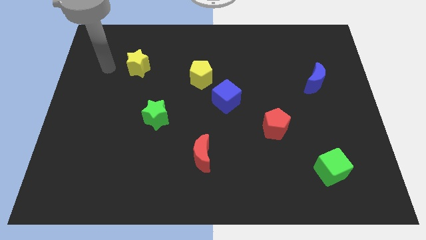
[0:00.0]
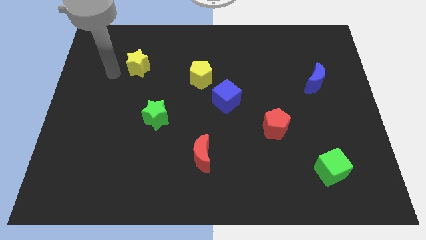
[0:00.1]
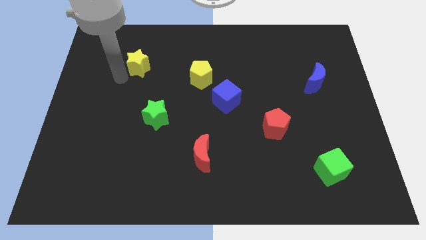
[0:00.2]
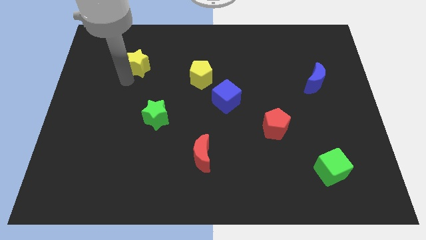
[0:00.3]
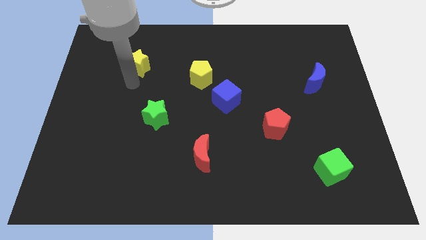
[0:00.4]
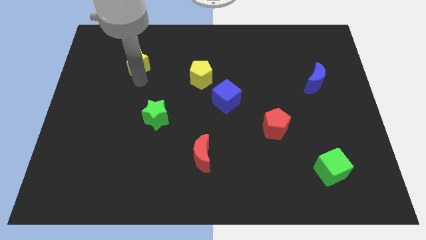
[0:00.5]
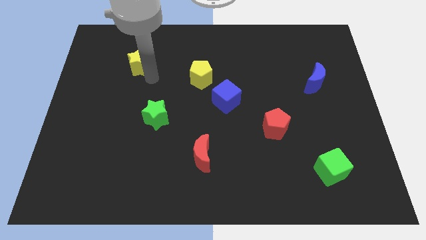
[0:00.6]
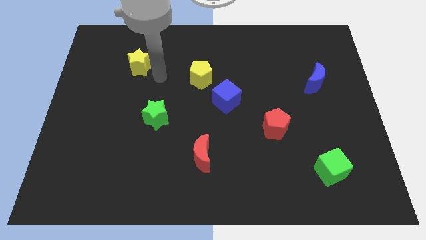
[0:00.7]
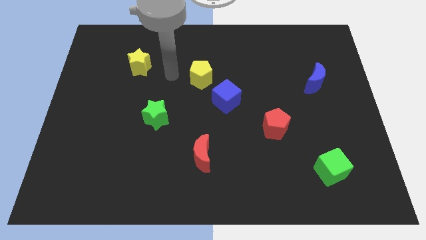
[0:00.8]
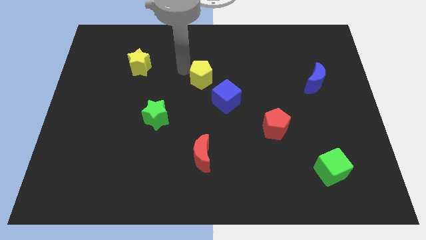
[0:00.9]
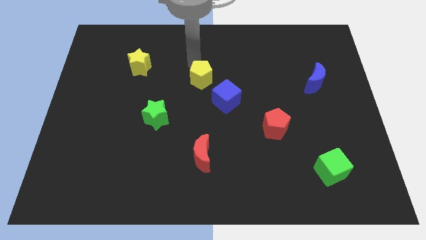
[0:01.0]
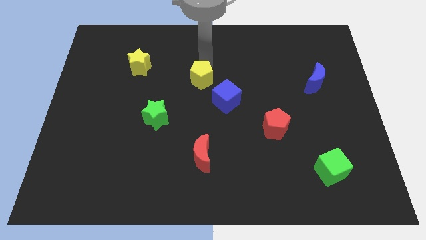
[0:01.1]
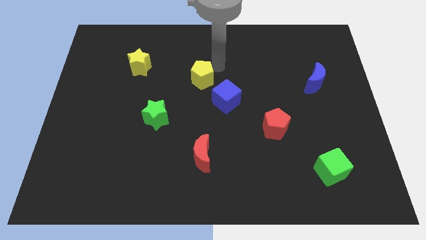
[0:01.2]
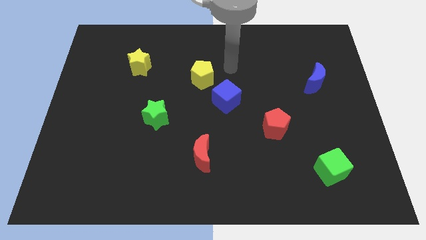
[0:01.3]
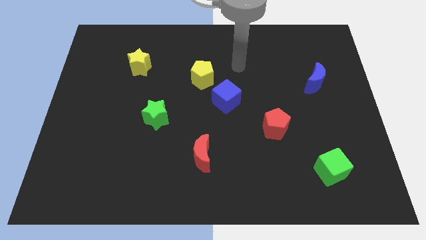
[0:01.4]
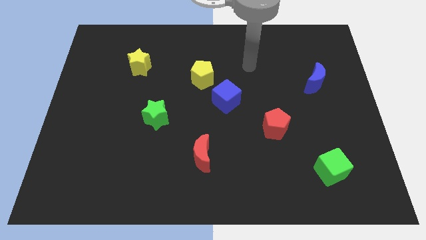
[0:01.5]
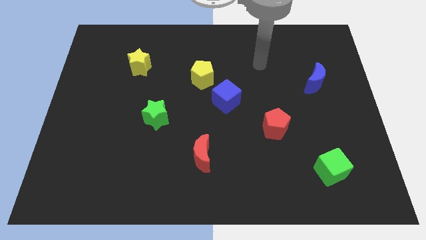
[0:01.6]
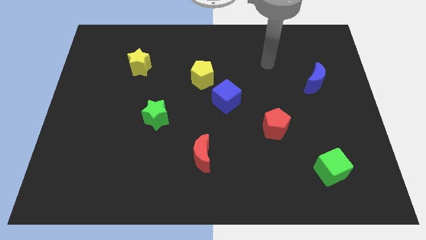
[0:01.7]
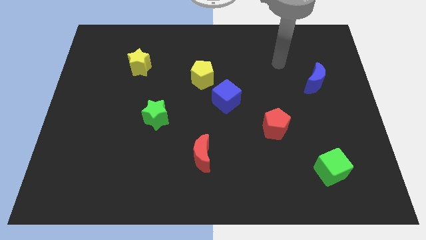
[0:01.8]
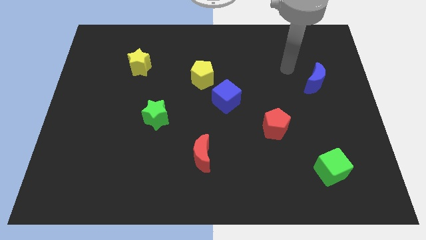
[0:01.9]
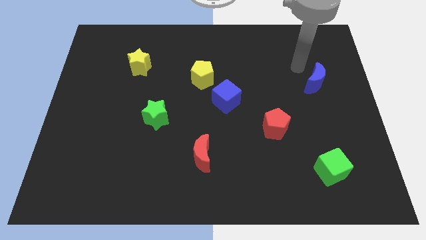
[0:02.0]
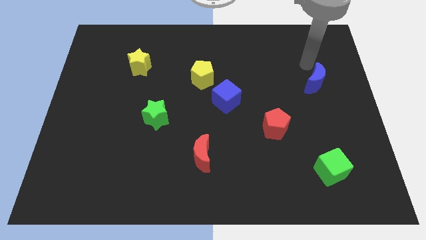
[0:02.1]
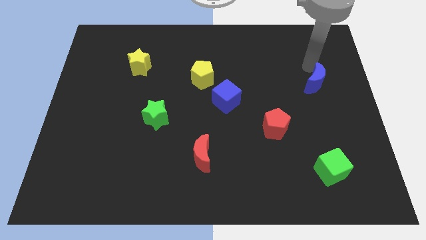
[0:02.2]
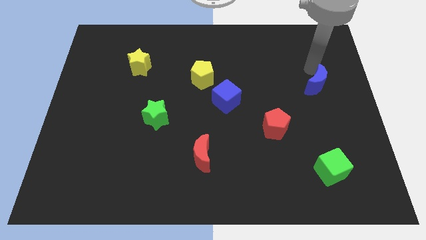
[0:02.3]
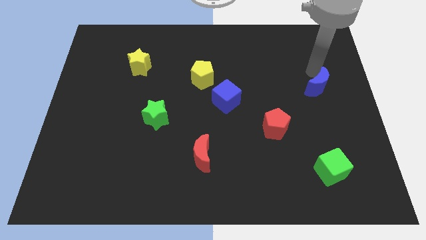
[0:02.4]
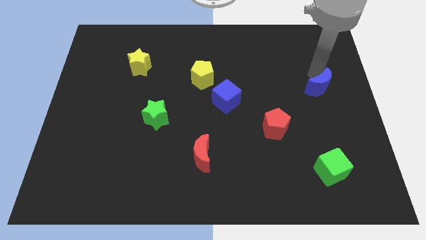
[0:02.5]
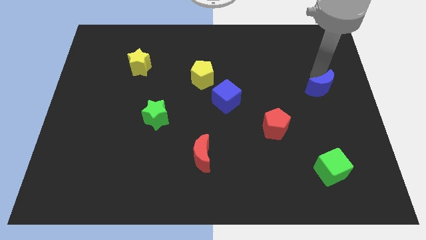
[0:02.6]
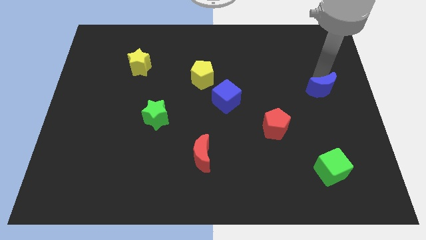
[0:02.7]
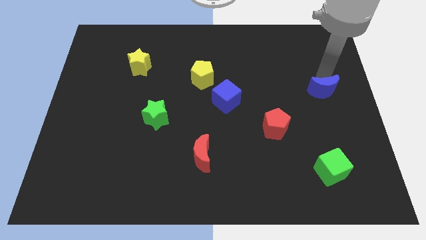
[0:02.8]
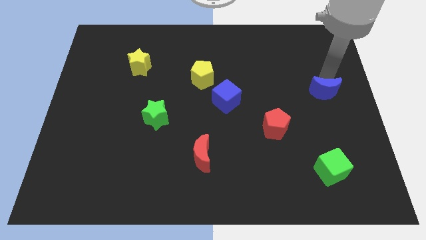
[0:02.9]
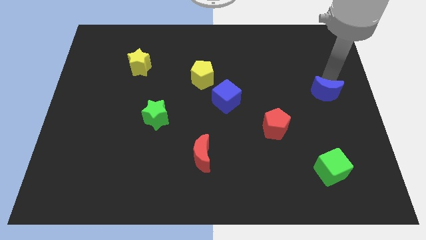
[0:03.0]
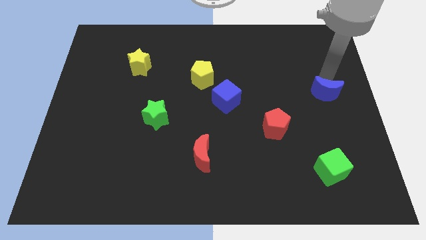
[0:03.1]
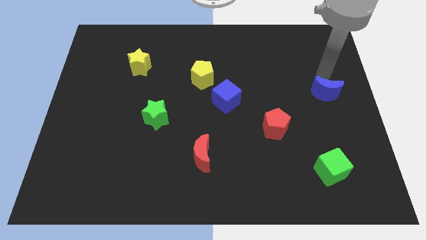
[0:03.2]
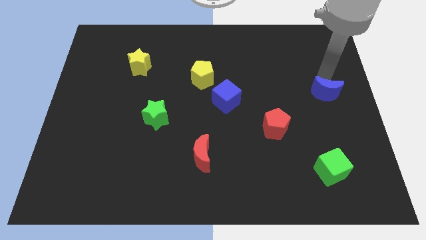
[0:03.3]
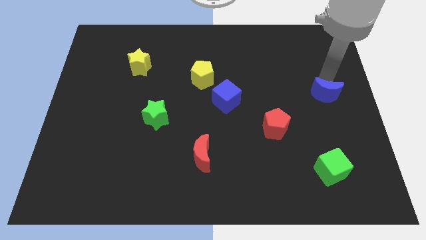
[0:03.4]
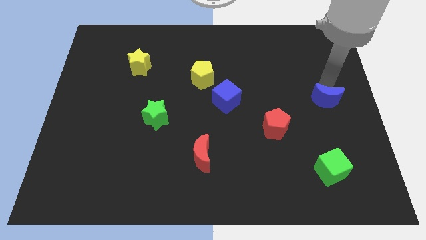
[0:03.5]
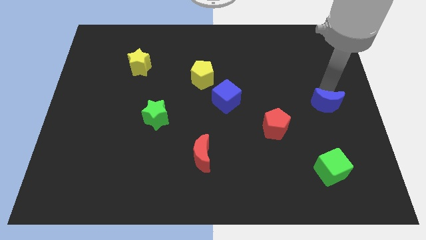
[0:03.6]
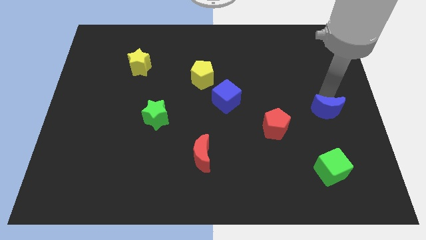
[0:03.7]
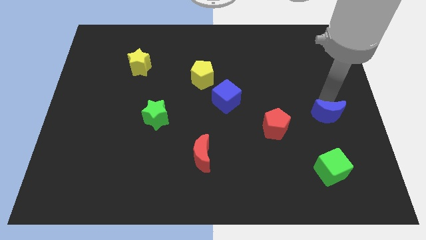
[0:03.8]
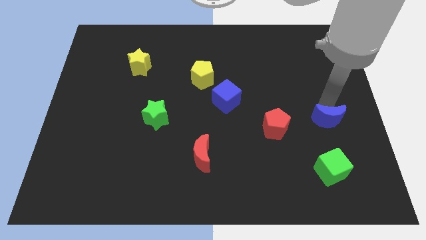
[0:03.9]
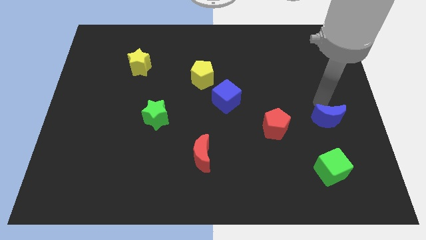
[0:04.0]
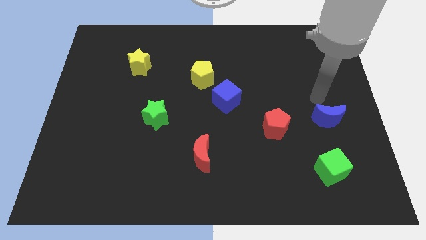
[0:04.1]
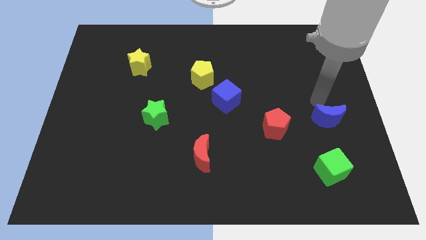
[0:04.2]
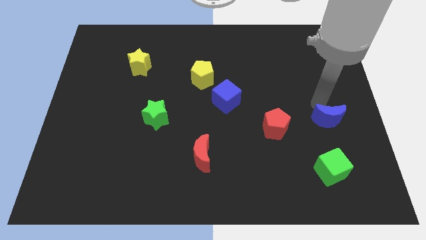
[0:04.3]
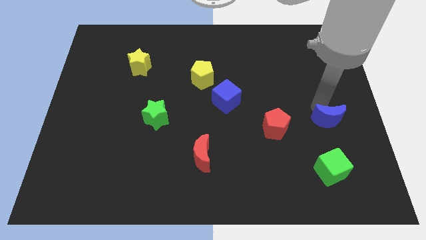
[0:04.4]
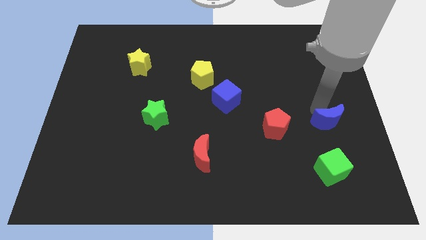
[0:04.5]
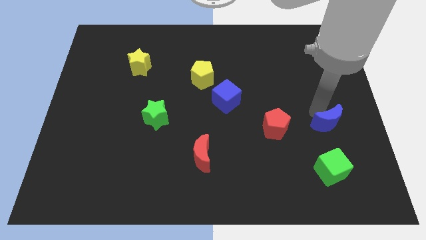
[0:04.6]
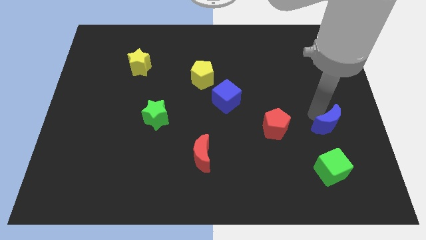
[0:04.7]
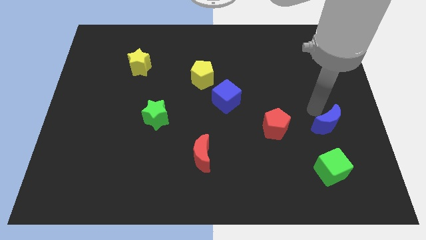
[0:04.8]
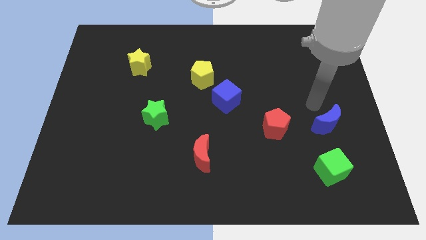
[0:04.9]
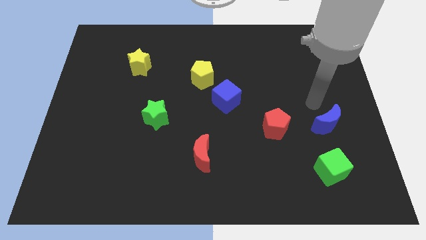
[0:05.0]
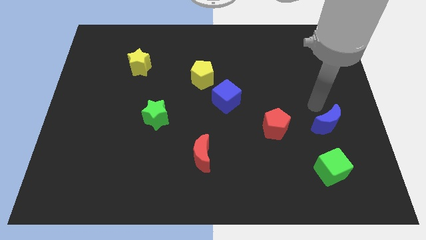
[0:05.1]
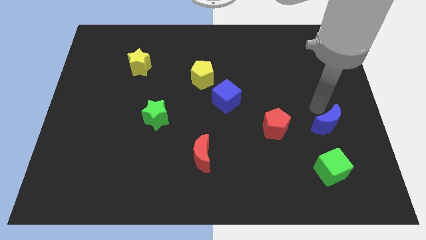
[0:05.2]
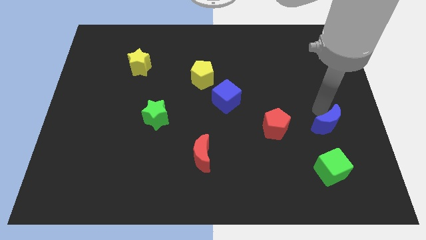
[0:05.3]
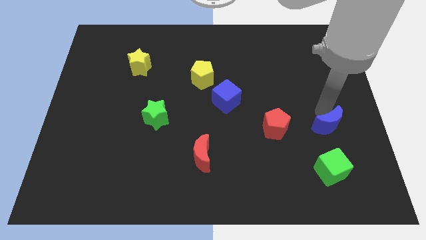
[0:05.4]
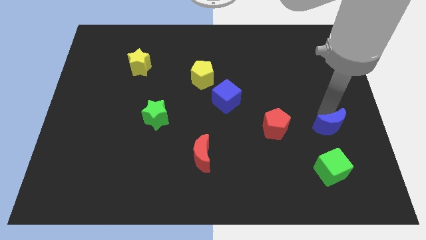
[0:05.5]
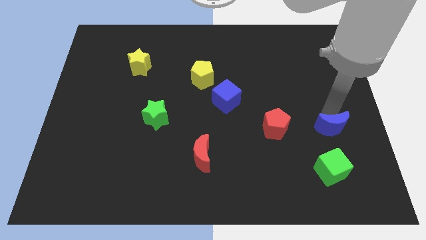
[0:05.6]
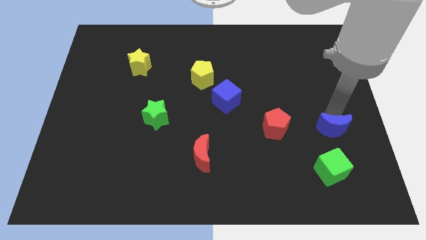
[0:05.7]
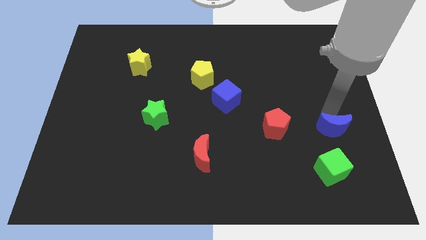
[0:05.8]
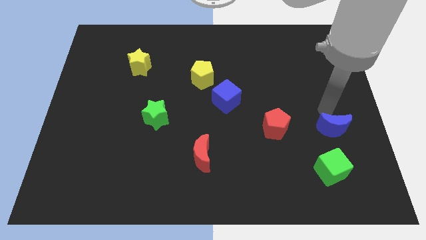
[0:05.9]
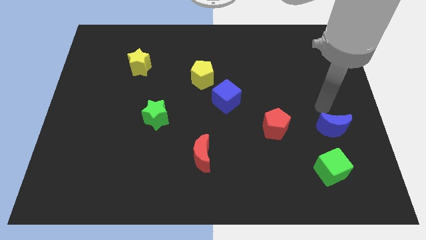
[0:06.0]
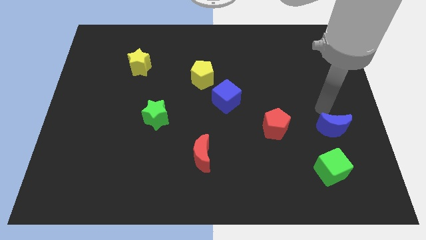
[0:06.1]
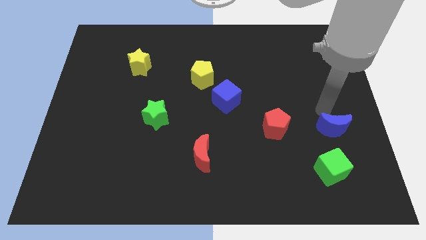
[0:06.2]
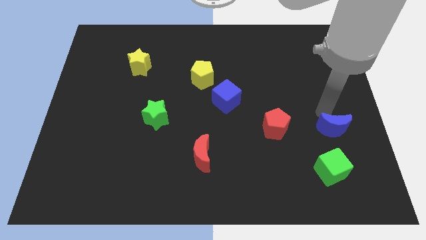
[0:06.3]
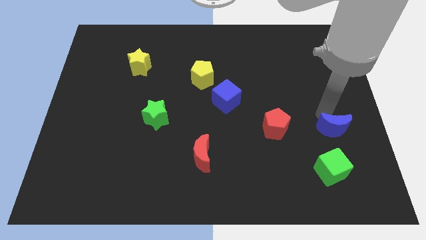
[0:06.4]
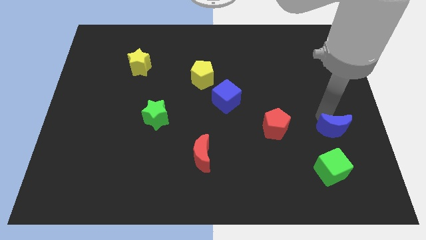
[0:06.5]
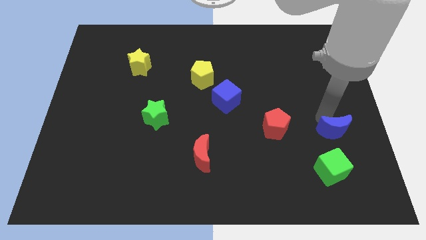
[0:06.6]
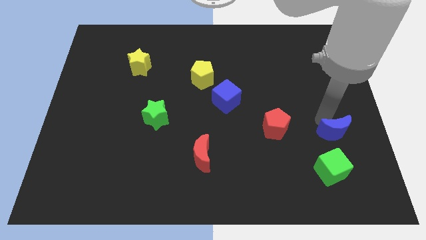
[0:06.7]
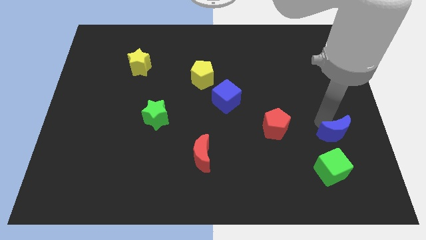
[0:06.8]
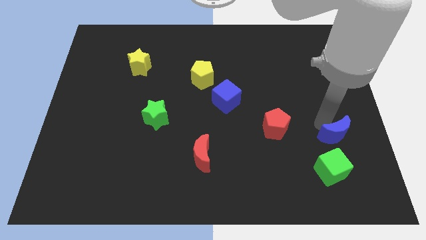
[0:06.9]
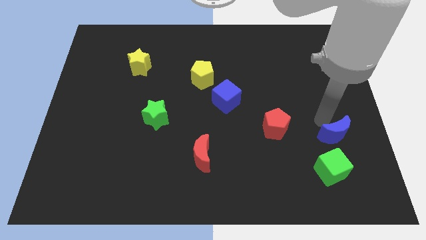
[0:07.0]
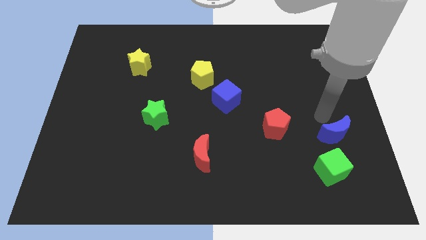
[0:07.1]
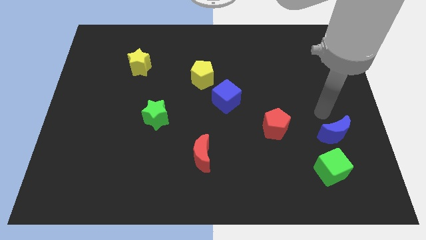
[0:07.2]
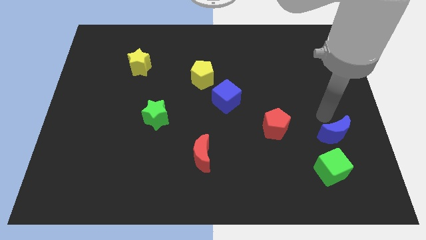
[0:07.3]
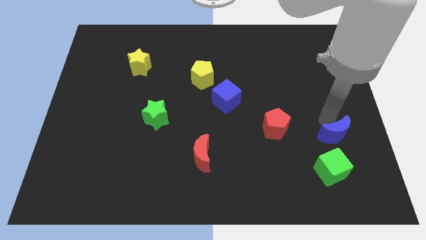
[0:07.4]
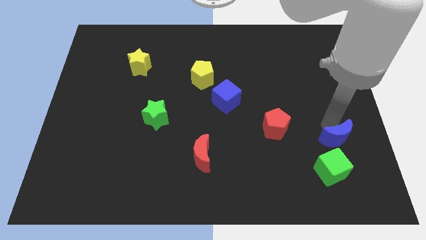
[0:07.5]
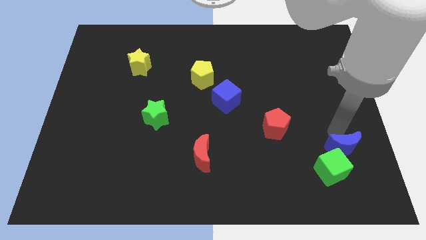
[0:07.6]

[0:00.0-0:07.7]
push the blue moon towards the green cube
